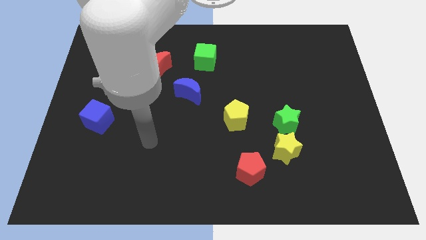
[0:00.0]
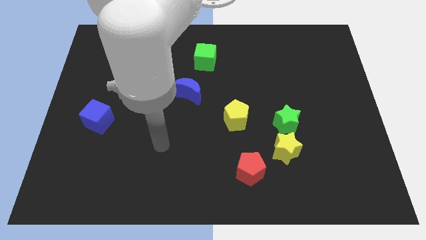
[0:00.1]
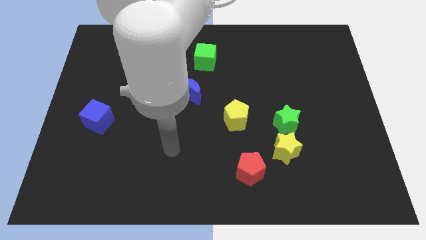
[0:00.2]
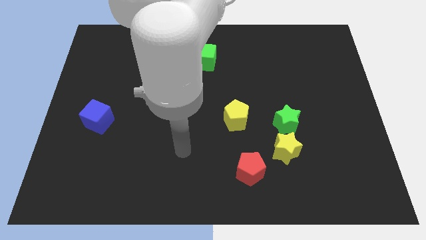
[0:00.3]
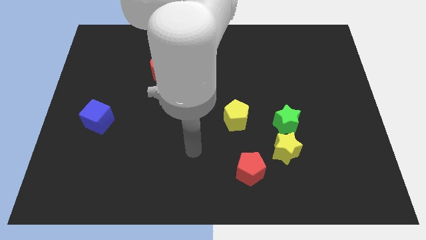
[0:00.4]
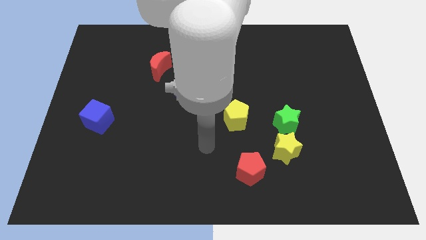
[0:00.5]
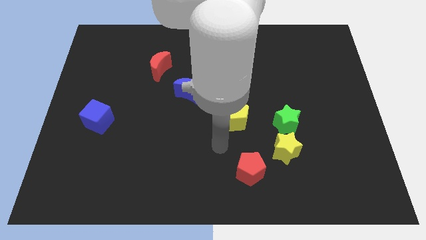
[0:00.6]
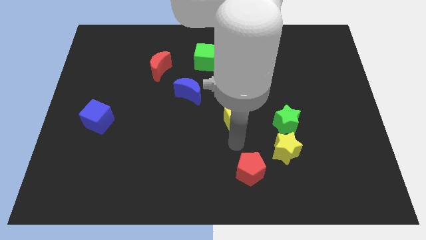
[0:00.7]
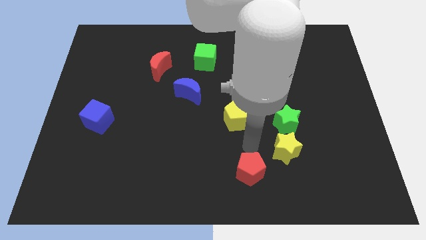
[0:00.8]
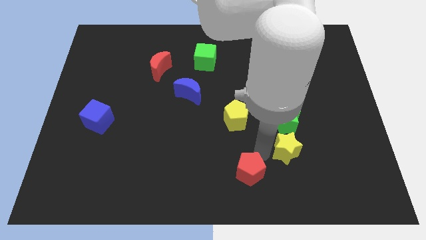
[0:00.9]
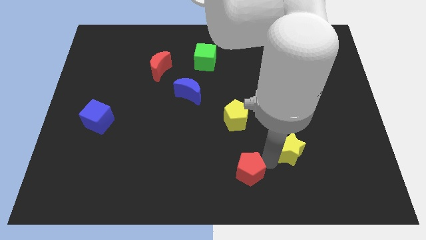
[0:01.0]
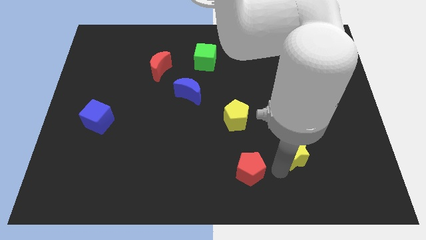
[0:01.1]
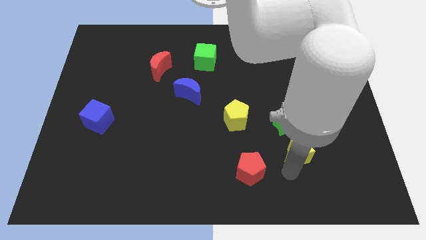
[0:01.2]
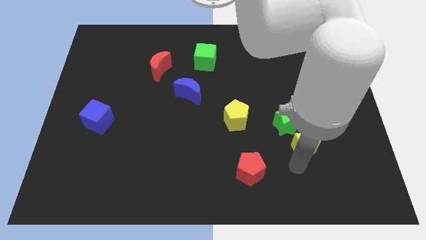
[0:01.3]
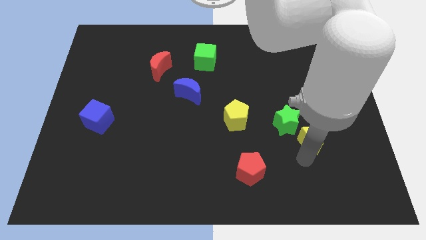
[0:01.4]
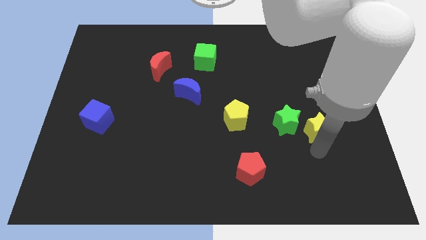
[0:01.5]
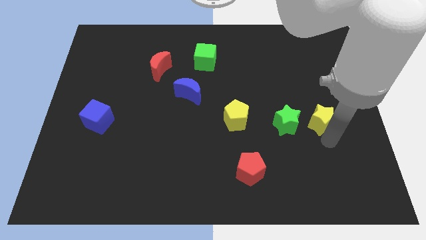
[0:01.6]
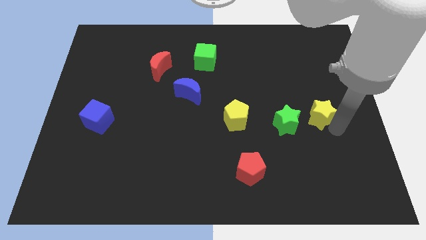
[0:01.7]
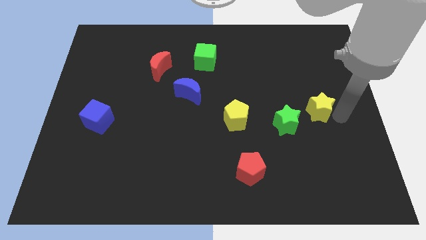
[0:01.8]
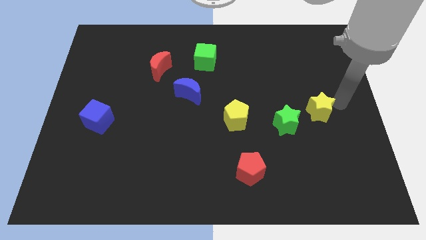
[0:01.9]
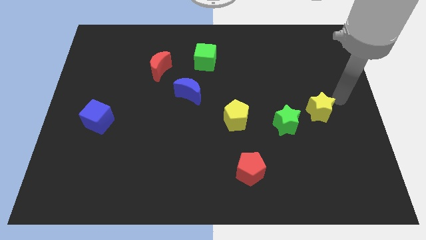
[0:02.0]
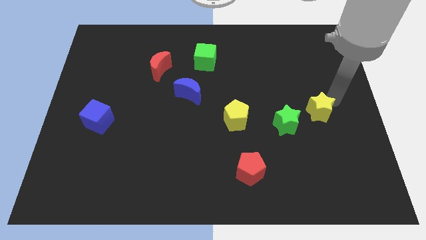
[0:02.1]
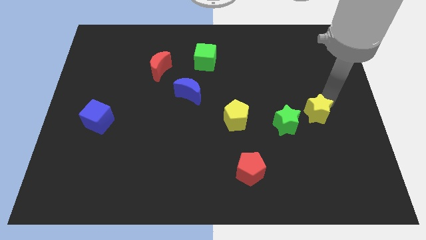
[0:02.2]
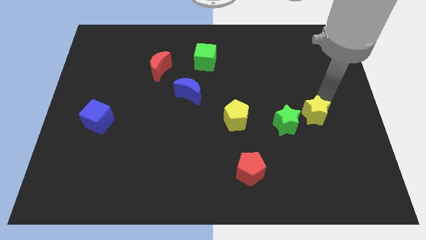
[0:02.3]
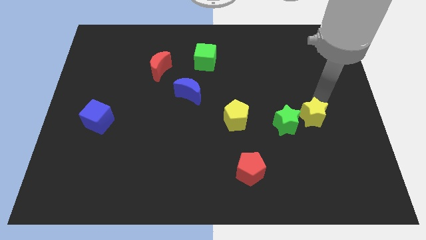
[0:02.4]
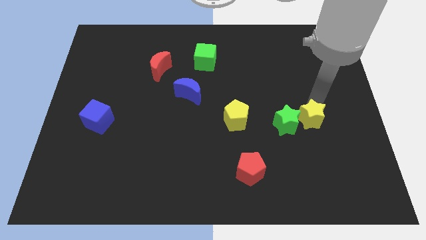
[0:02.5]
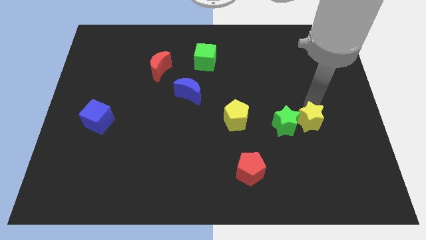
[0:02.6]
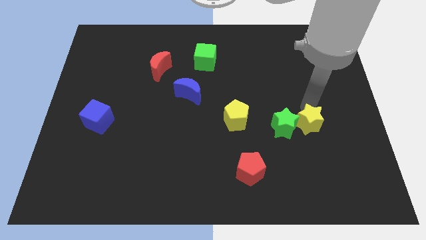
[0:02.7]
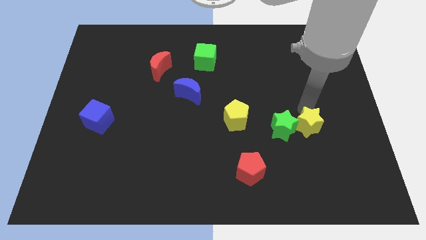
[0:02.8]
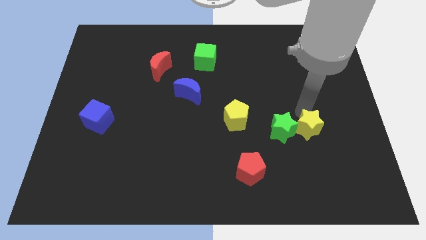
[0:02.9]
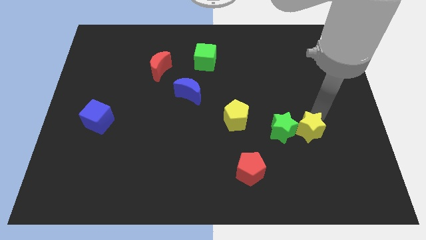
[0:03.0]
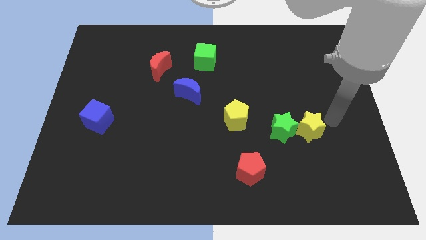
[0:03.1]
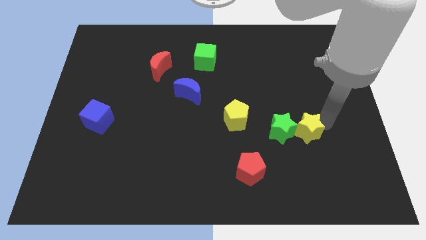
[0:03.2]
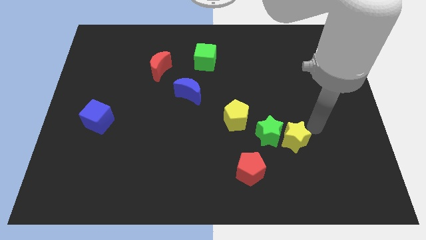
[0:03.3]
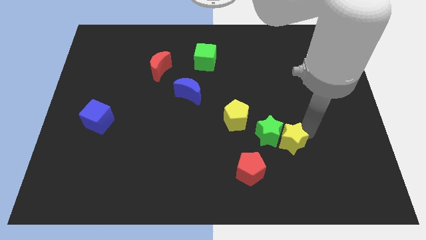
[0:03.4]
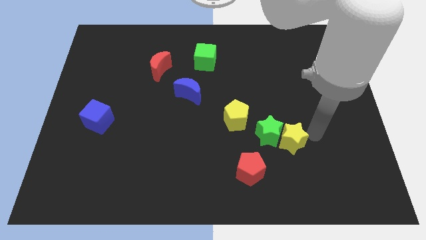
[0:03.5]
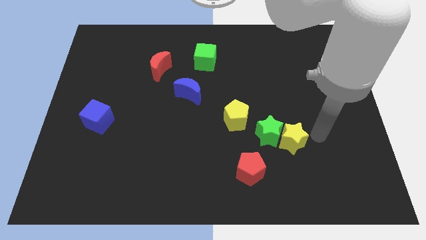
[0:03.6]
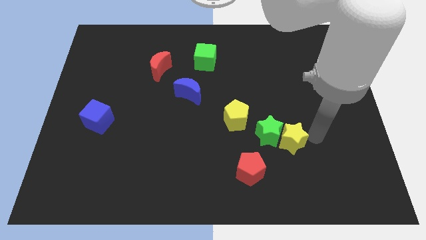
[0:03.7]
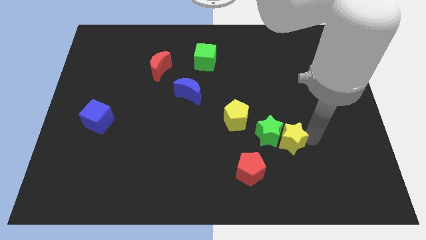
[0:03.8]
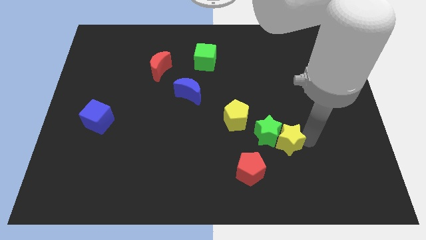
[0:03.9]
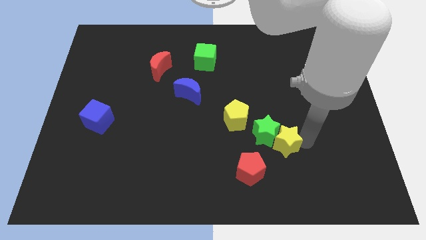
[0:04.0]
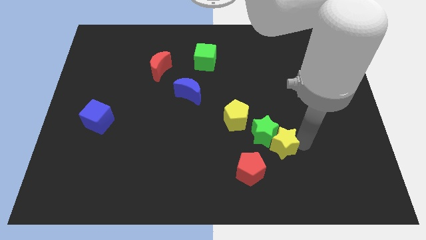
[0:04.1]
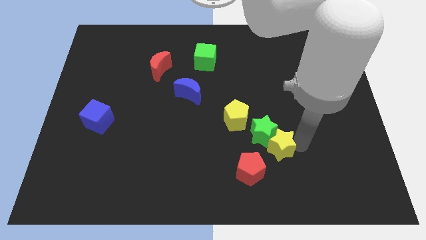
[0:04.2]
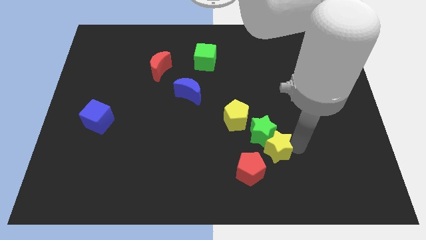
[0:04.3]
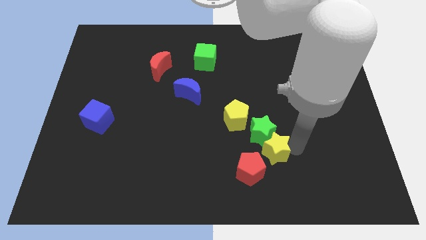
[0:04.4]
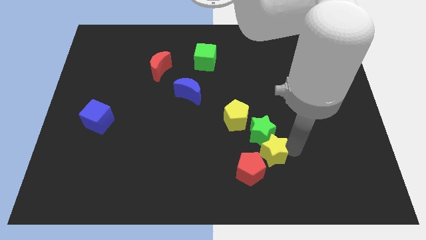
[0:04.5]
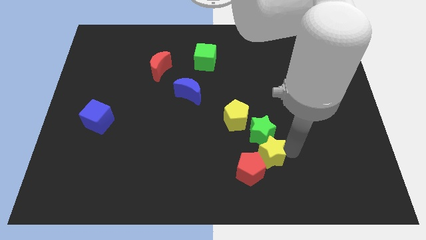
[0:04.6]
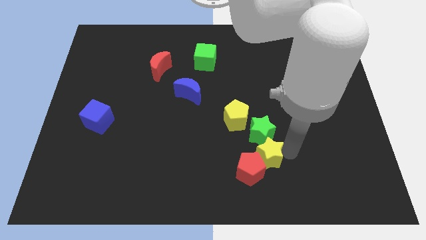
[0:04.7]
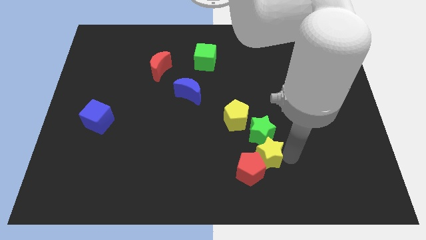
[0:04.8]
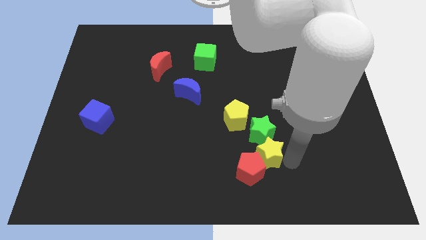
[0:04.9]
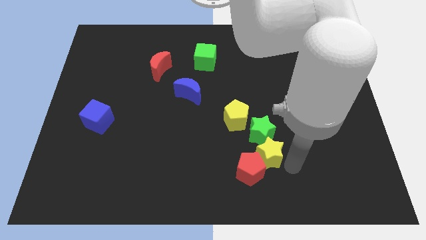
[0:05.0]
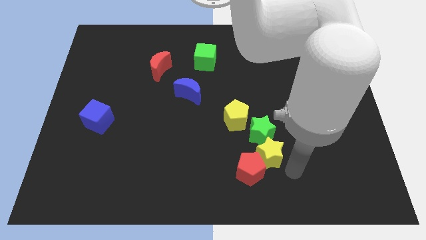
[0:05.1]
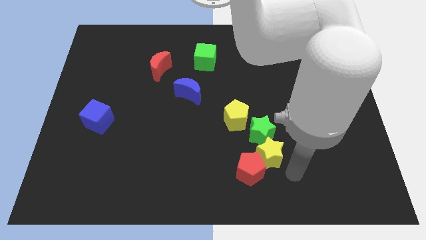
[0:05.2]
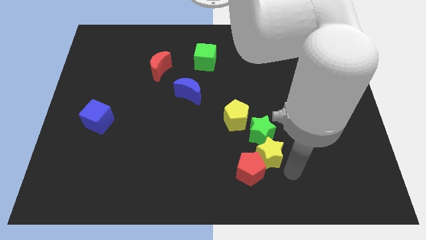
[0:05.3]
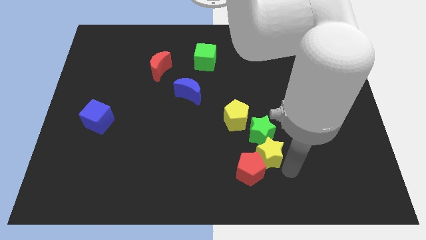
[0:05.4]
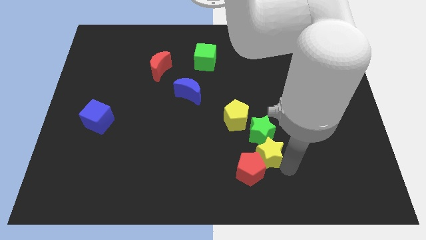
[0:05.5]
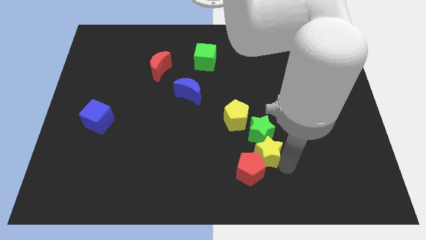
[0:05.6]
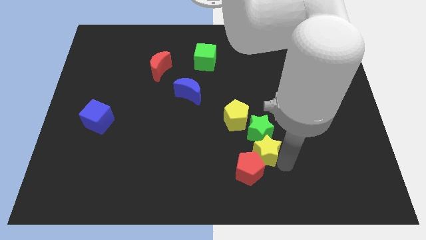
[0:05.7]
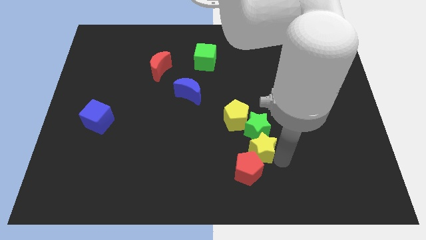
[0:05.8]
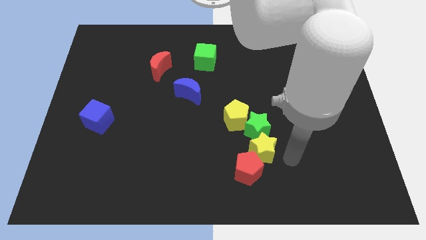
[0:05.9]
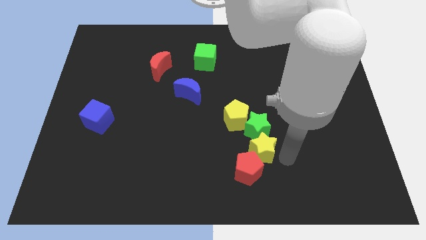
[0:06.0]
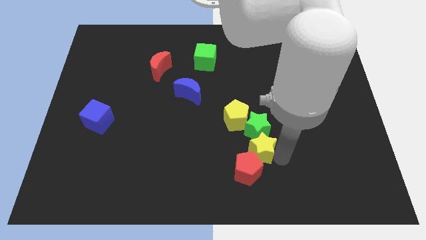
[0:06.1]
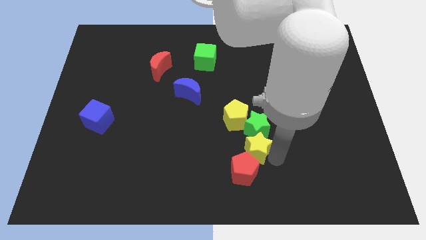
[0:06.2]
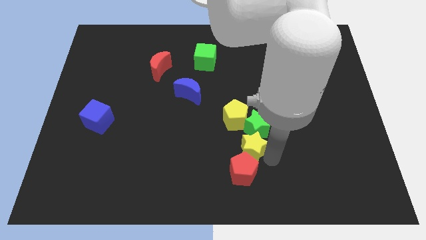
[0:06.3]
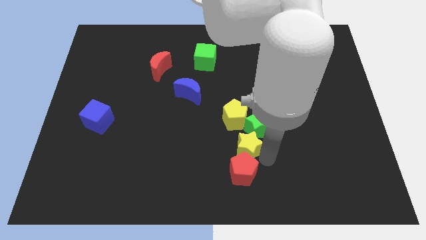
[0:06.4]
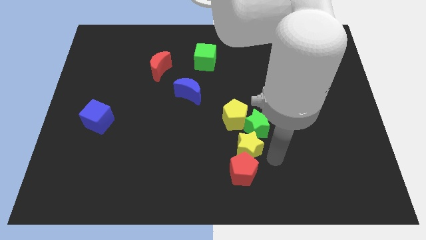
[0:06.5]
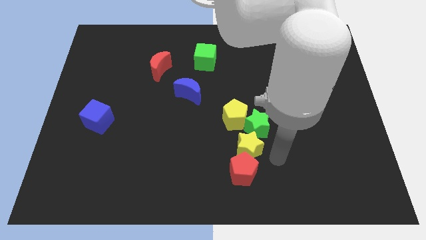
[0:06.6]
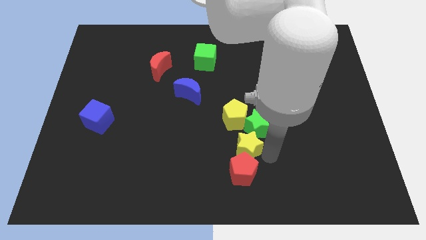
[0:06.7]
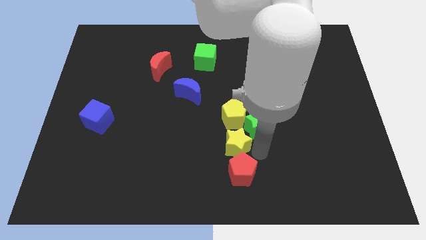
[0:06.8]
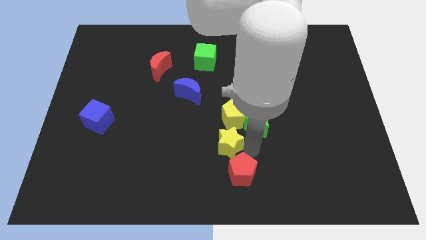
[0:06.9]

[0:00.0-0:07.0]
slide the yellow star diagonally down and to the left of the yellow pentagon
